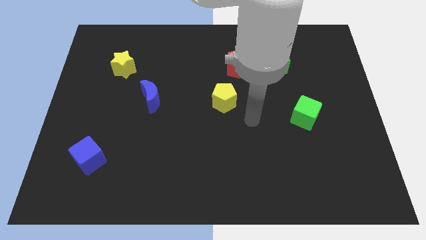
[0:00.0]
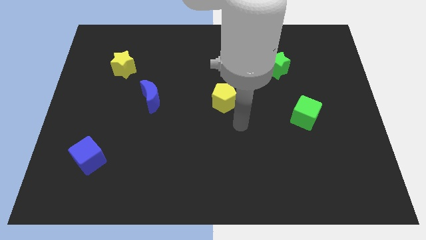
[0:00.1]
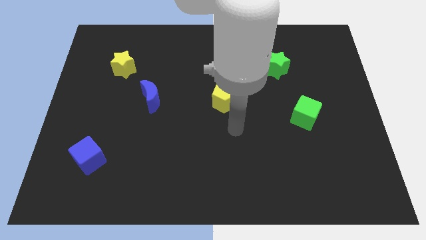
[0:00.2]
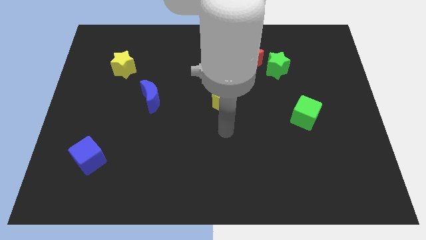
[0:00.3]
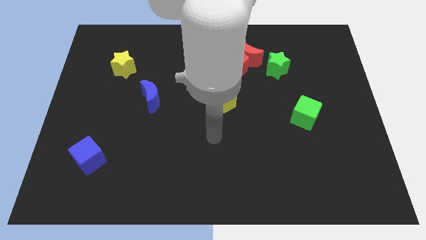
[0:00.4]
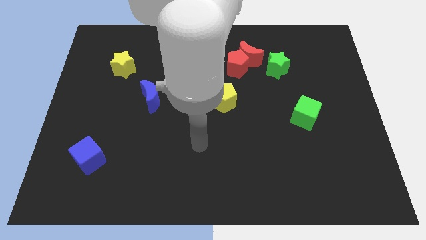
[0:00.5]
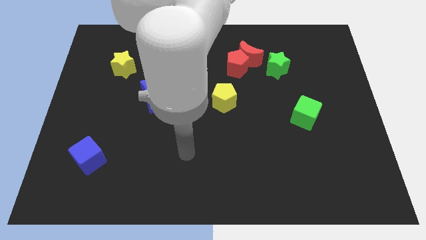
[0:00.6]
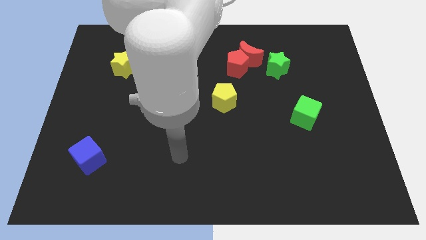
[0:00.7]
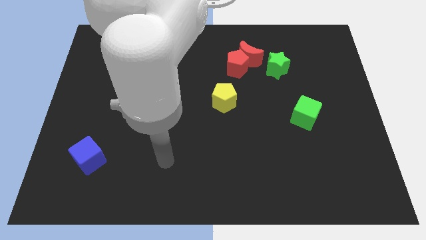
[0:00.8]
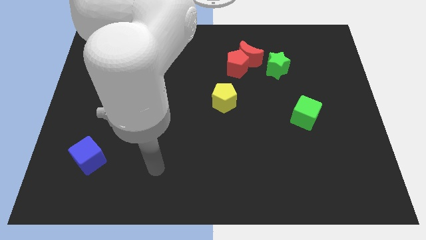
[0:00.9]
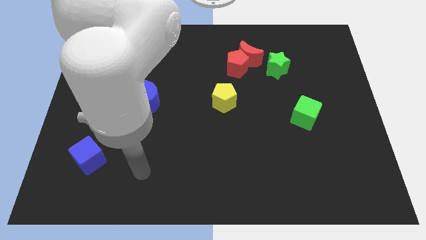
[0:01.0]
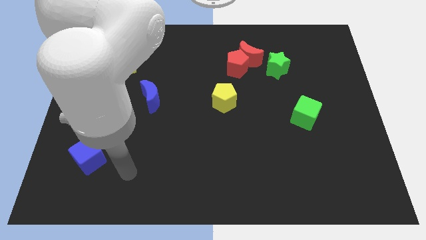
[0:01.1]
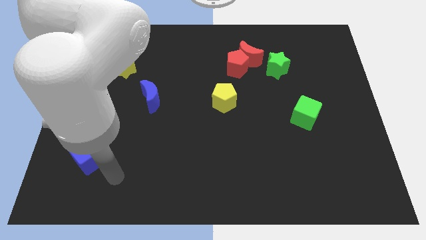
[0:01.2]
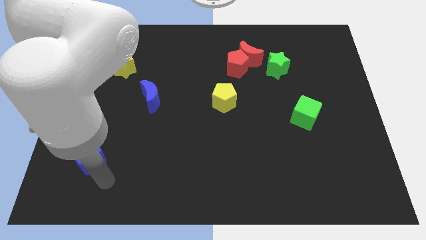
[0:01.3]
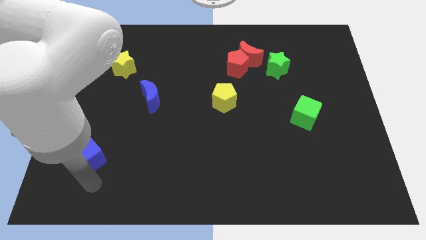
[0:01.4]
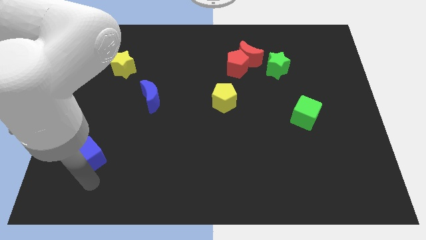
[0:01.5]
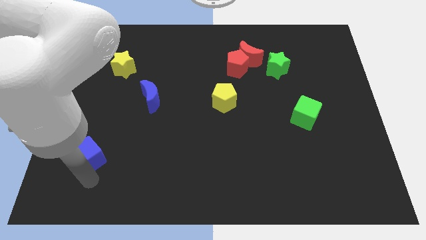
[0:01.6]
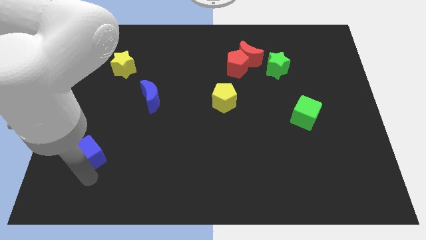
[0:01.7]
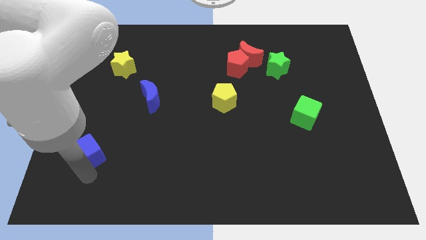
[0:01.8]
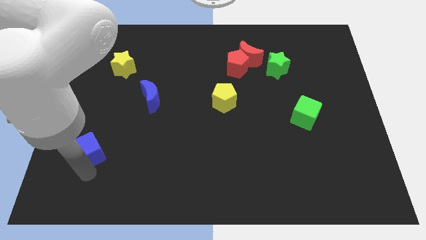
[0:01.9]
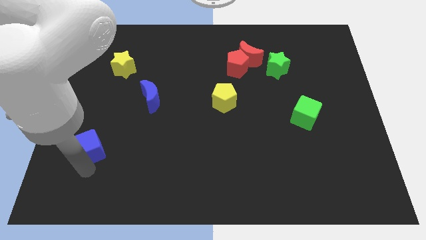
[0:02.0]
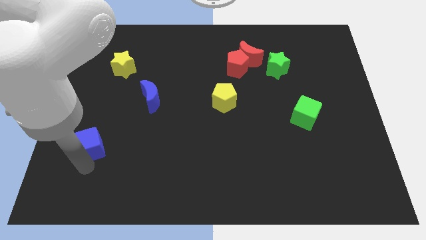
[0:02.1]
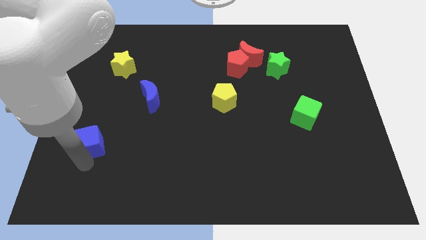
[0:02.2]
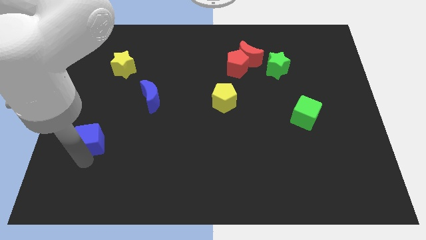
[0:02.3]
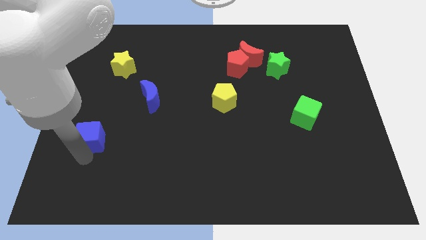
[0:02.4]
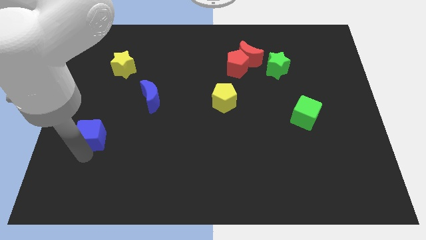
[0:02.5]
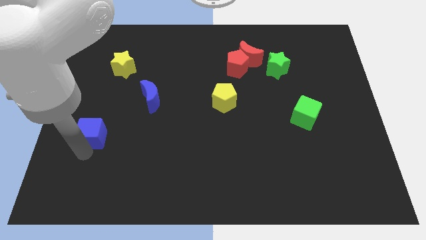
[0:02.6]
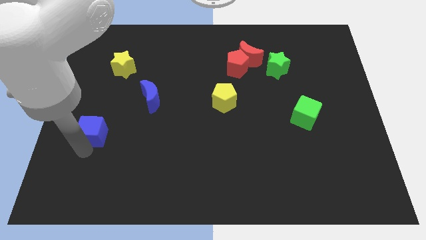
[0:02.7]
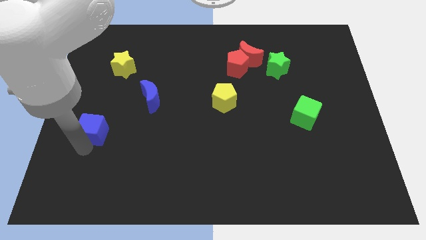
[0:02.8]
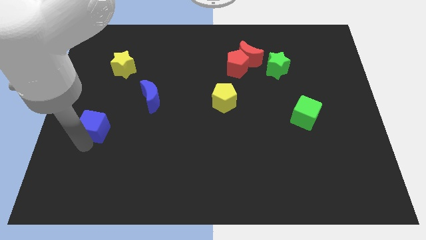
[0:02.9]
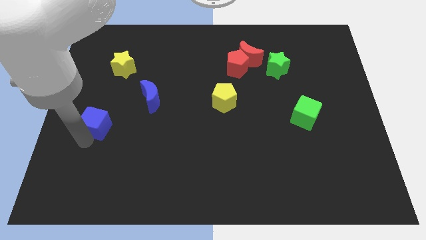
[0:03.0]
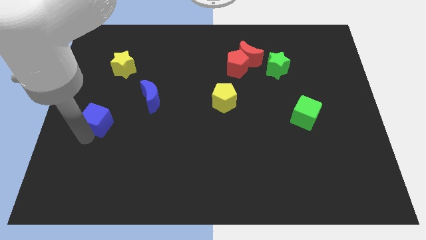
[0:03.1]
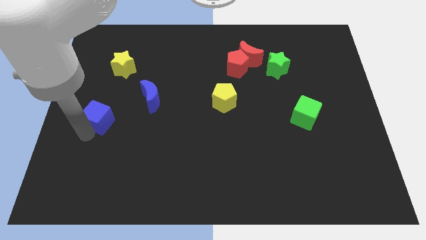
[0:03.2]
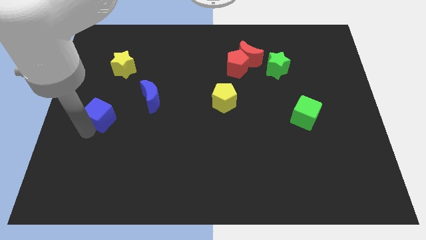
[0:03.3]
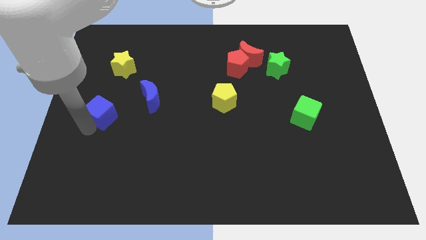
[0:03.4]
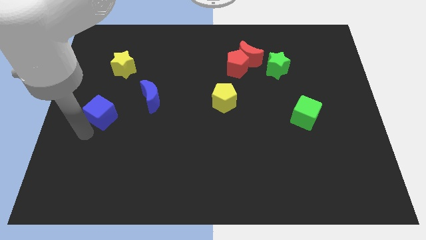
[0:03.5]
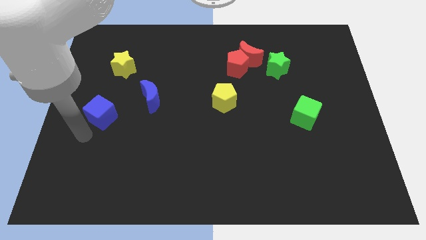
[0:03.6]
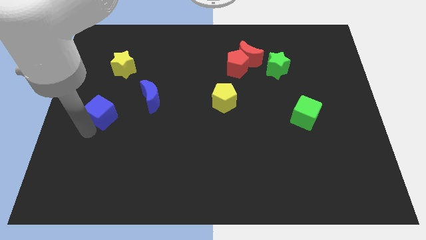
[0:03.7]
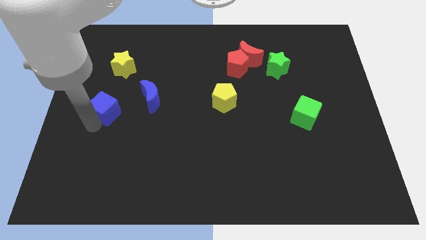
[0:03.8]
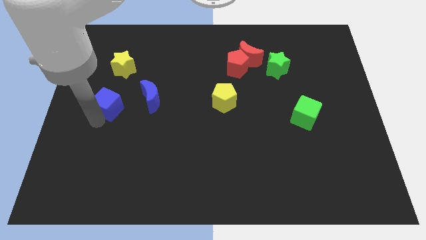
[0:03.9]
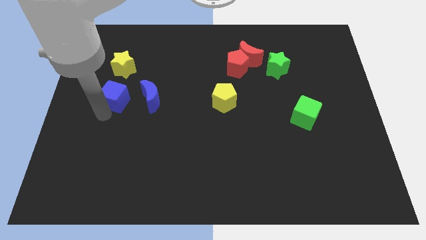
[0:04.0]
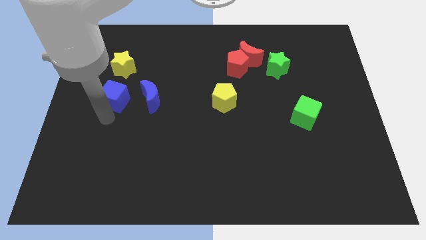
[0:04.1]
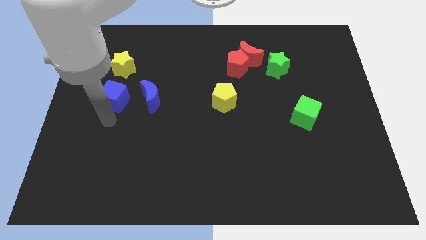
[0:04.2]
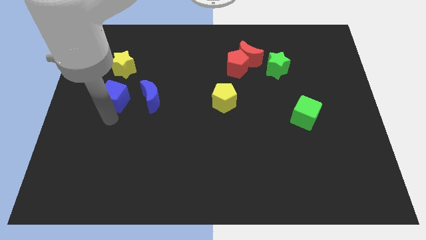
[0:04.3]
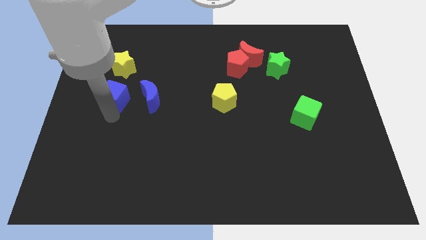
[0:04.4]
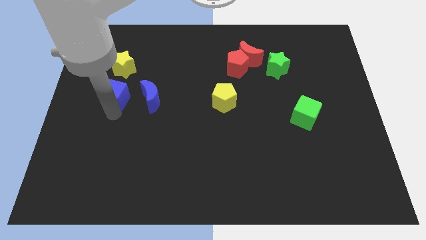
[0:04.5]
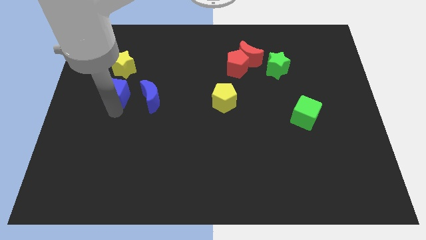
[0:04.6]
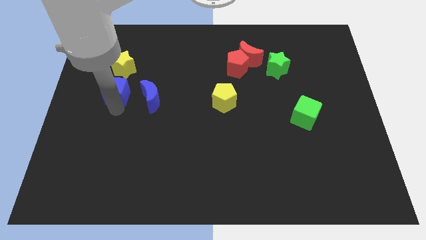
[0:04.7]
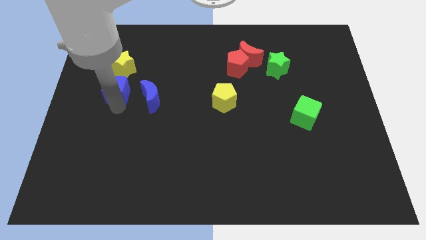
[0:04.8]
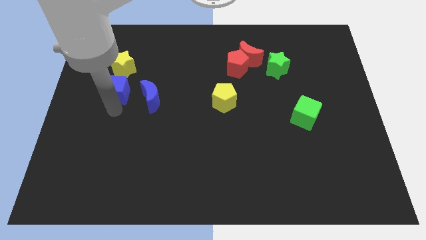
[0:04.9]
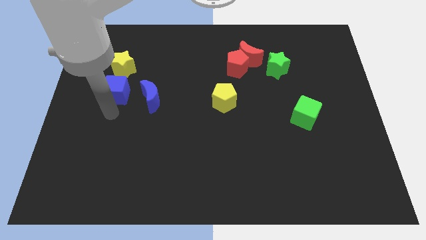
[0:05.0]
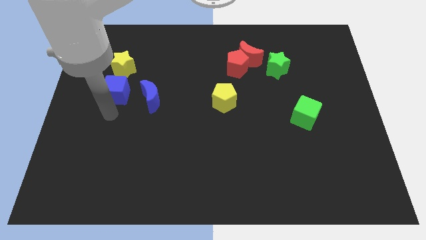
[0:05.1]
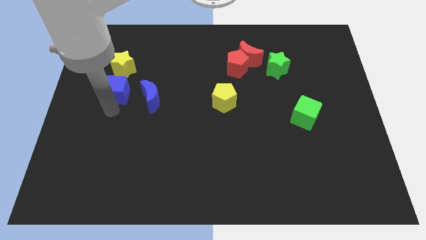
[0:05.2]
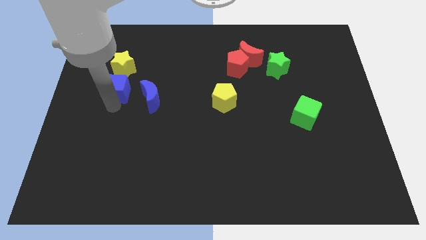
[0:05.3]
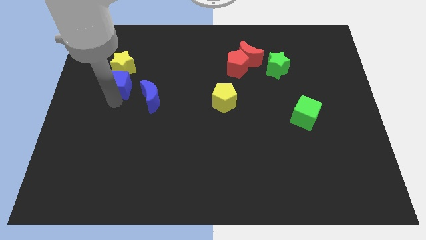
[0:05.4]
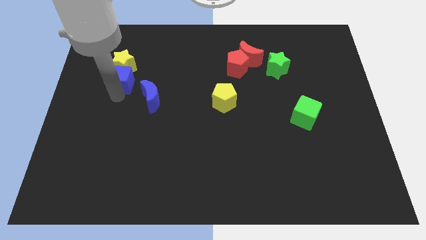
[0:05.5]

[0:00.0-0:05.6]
move the blue cube towards the yellow star
